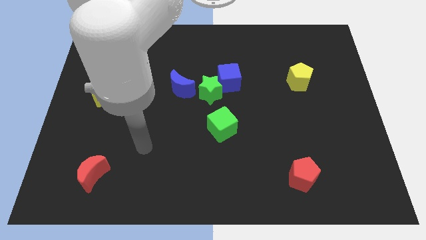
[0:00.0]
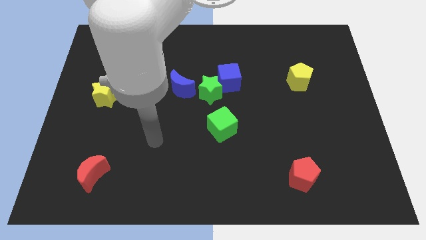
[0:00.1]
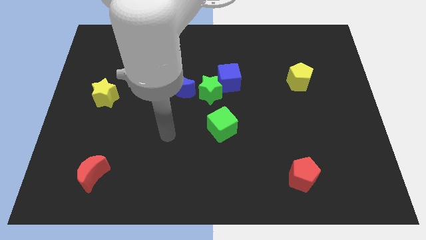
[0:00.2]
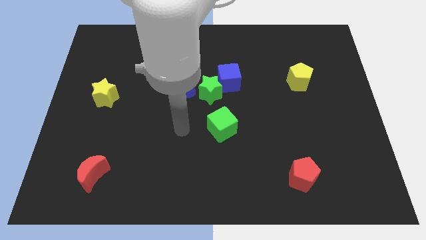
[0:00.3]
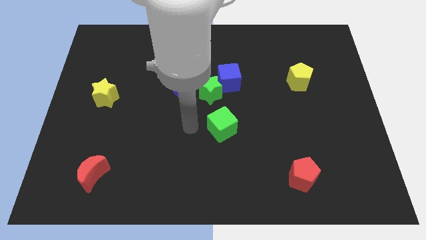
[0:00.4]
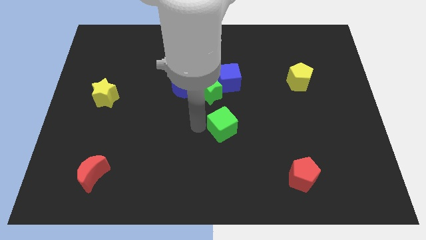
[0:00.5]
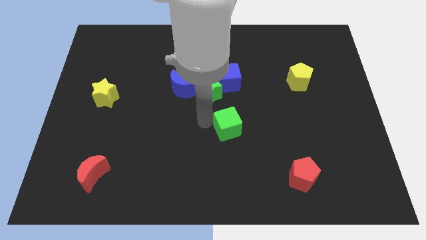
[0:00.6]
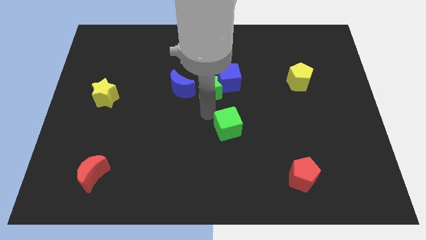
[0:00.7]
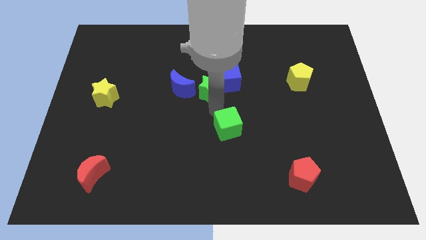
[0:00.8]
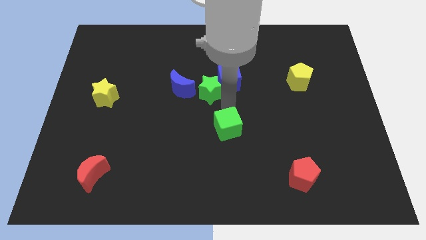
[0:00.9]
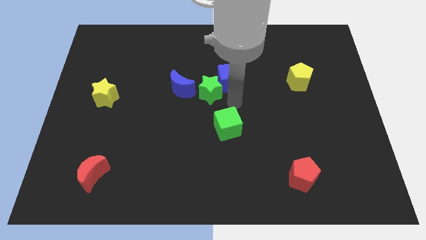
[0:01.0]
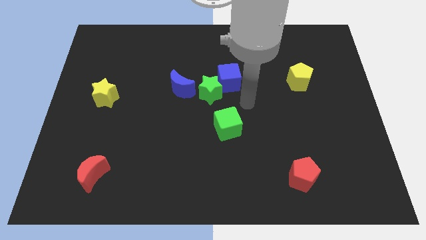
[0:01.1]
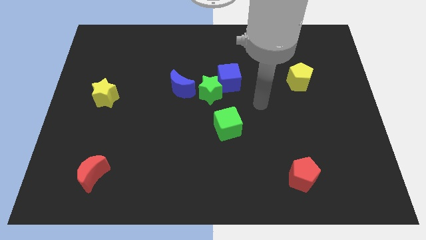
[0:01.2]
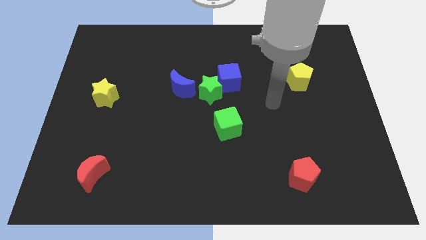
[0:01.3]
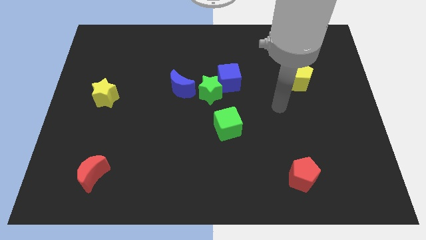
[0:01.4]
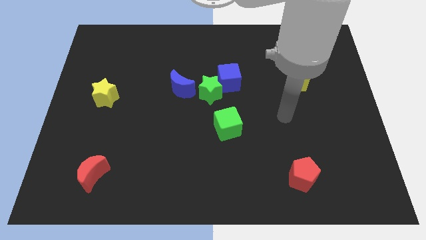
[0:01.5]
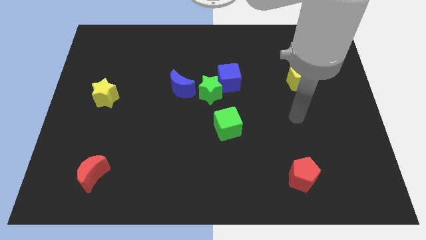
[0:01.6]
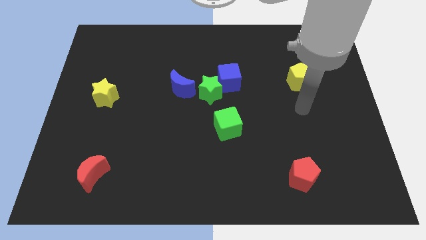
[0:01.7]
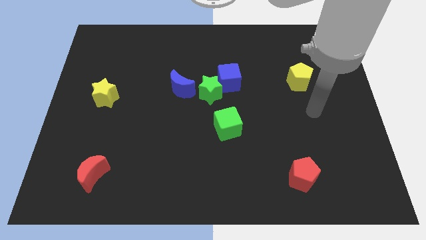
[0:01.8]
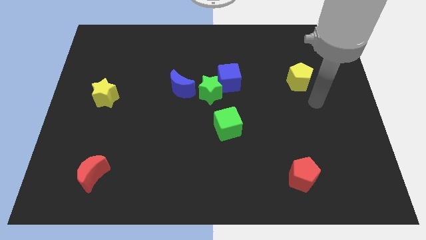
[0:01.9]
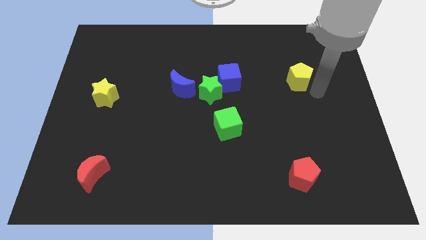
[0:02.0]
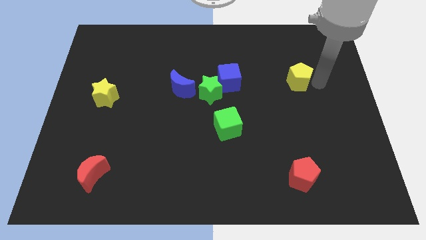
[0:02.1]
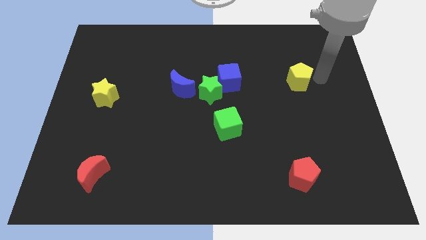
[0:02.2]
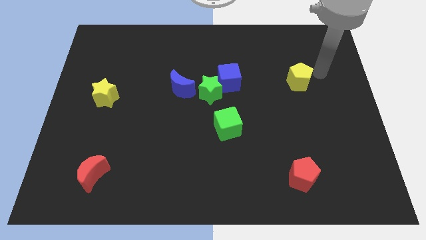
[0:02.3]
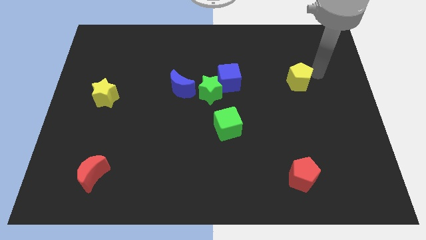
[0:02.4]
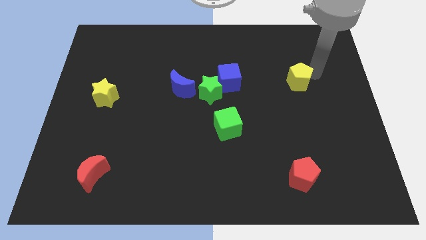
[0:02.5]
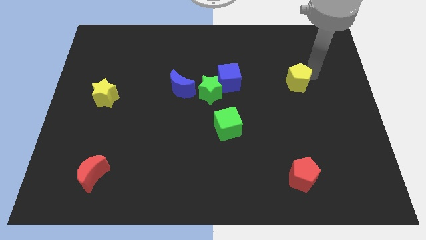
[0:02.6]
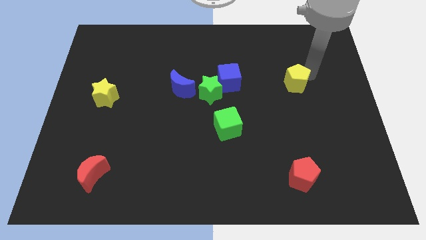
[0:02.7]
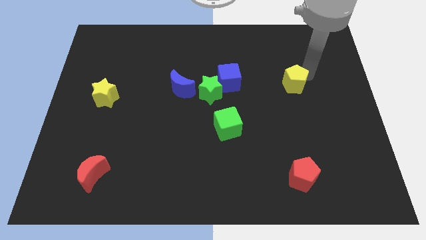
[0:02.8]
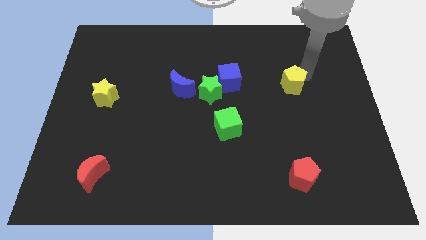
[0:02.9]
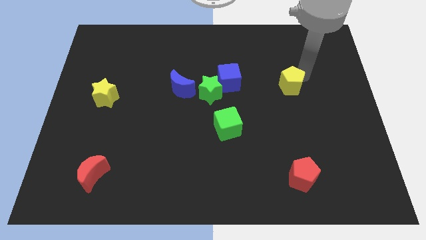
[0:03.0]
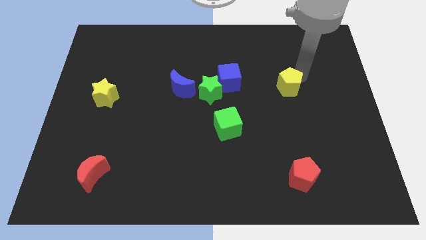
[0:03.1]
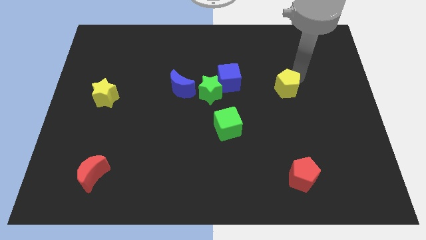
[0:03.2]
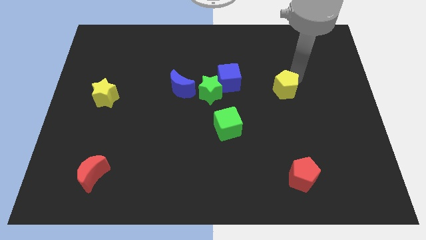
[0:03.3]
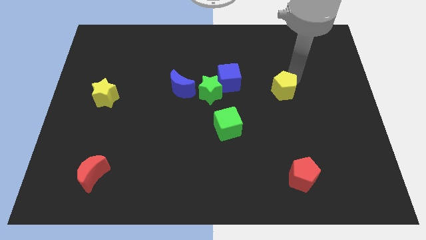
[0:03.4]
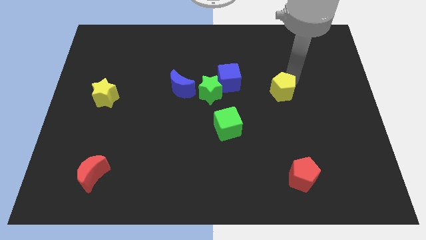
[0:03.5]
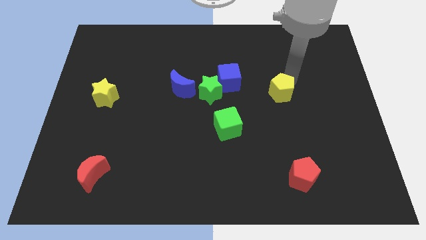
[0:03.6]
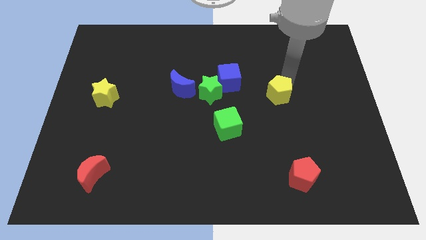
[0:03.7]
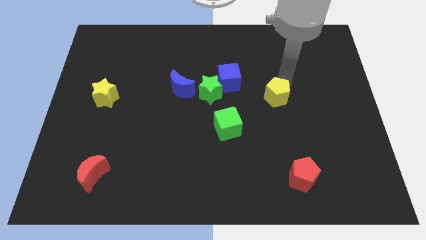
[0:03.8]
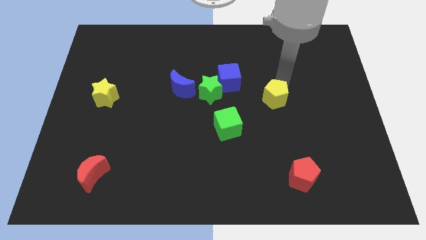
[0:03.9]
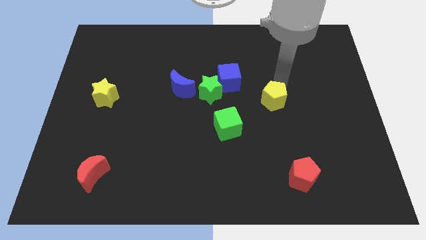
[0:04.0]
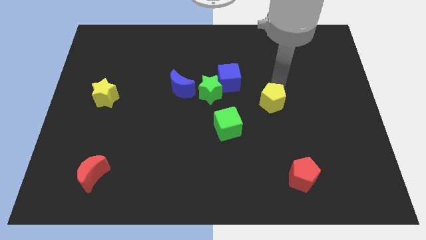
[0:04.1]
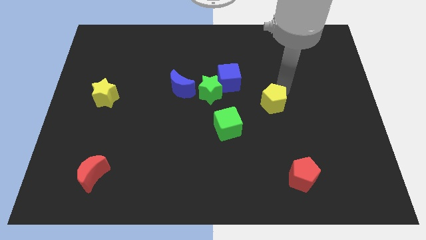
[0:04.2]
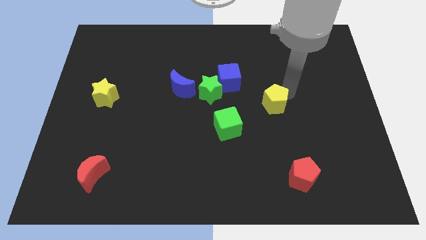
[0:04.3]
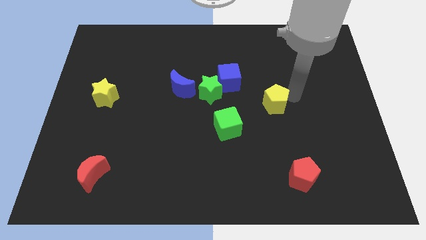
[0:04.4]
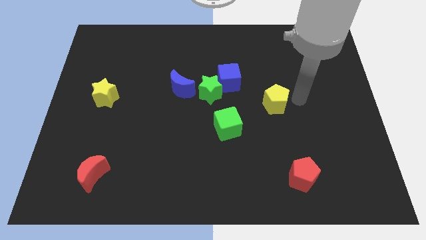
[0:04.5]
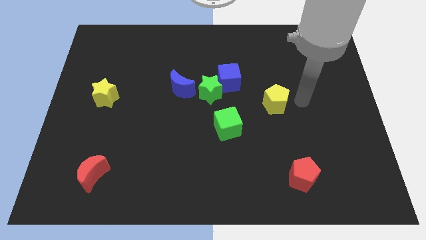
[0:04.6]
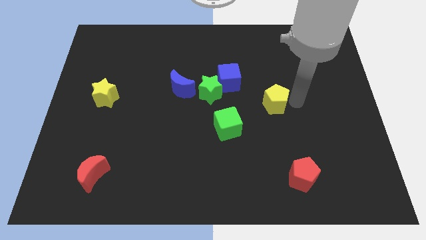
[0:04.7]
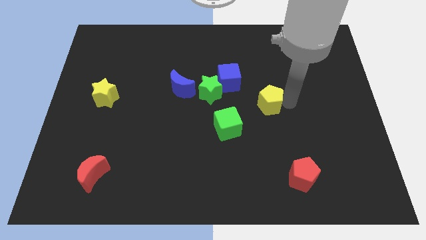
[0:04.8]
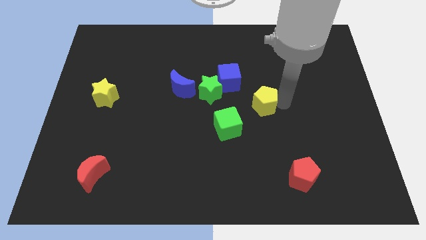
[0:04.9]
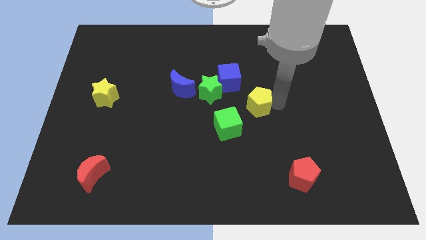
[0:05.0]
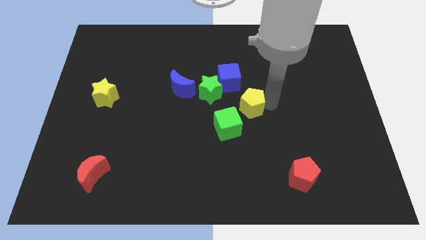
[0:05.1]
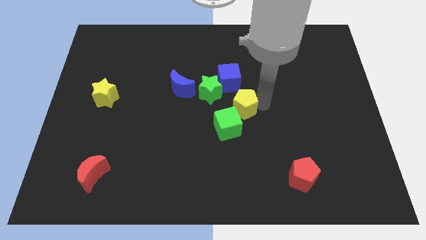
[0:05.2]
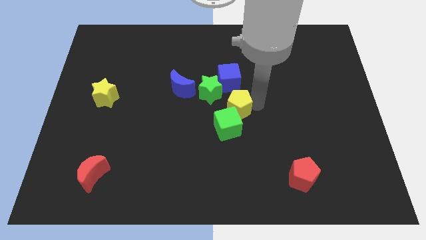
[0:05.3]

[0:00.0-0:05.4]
slide the yellow pentagon towards the green cube

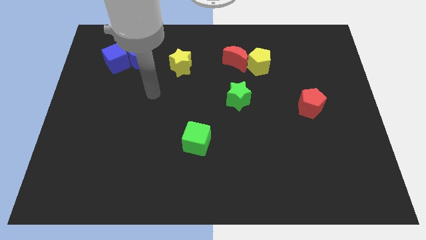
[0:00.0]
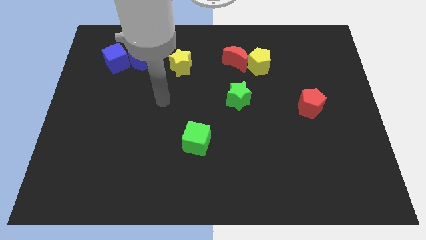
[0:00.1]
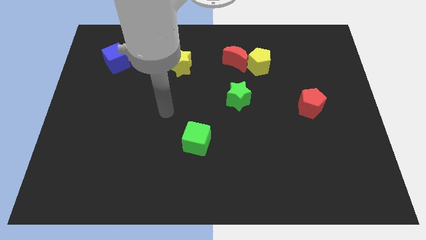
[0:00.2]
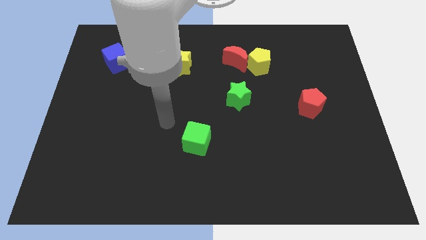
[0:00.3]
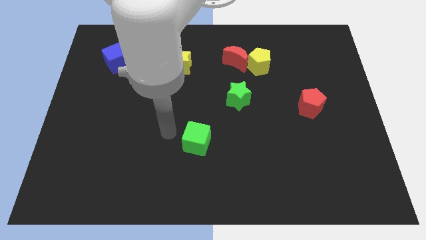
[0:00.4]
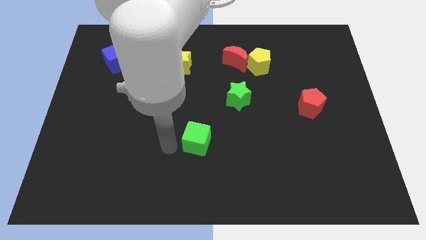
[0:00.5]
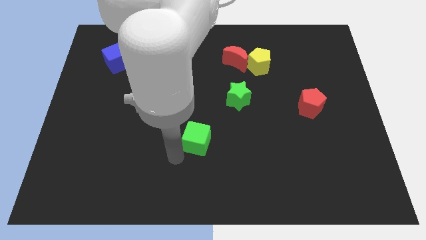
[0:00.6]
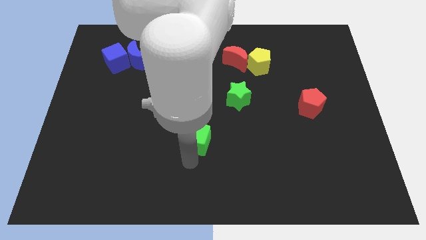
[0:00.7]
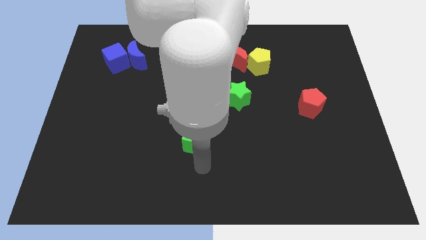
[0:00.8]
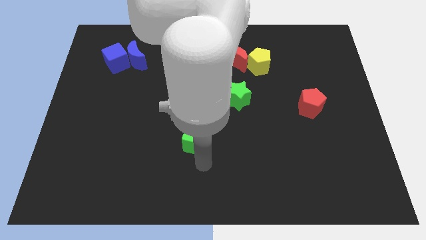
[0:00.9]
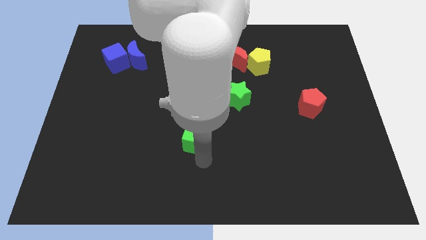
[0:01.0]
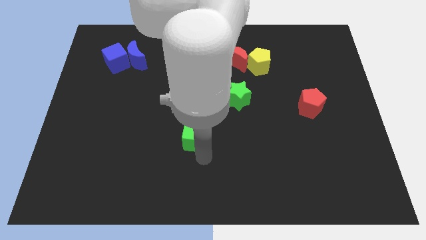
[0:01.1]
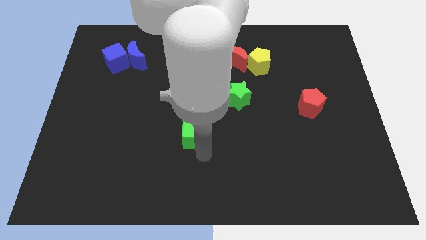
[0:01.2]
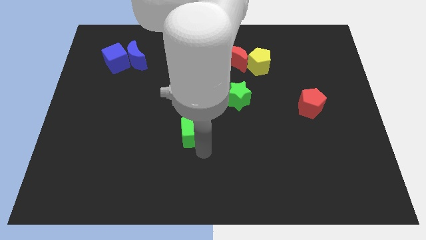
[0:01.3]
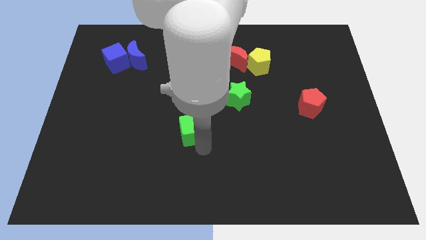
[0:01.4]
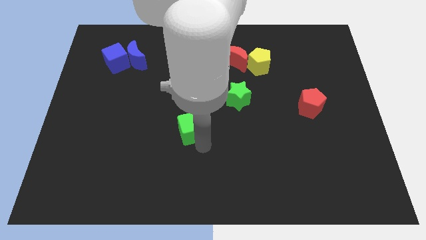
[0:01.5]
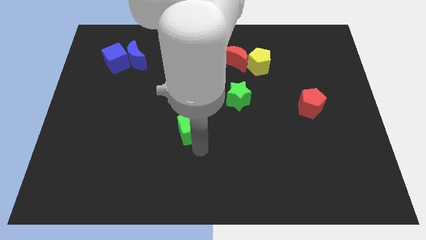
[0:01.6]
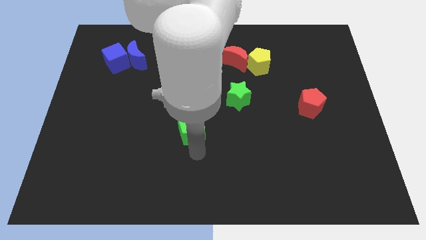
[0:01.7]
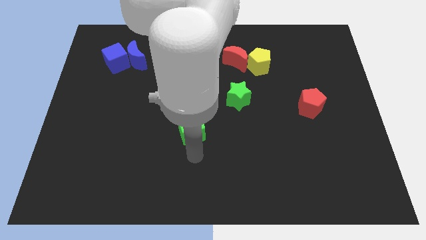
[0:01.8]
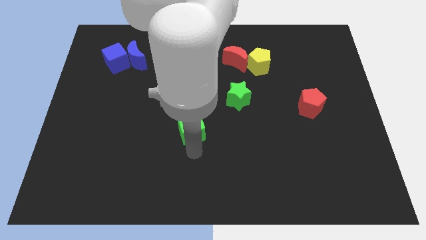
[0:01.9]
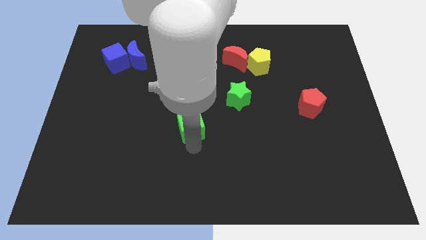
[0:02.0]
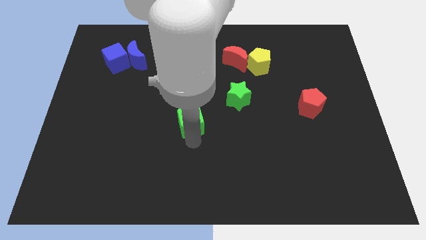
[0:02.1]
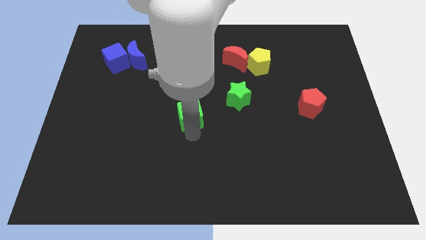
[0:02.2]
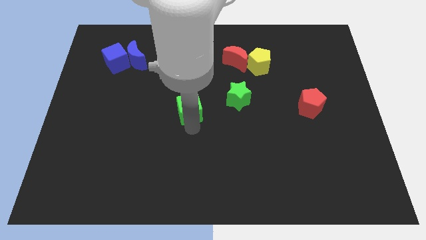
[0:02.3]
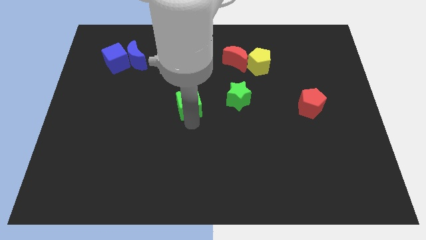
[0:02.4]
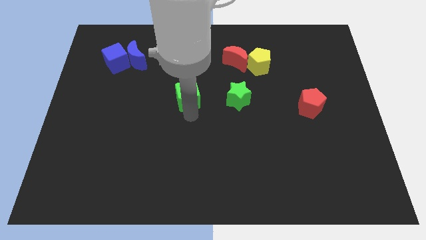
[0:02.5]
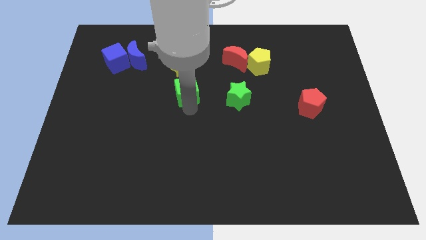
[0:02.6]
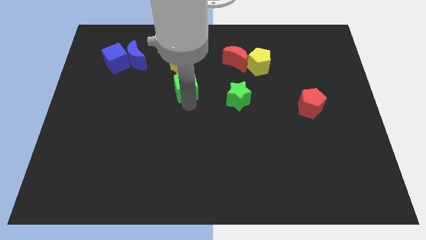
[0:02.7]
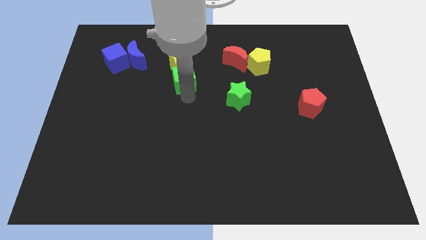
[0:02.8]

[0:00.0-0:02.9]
put the green cube towards the yellow star
